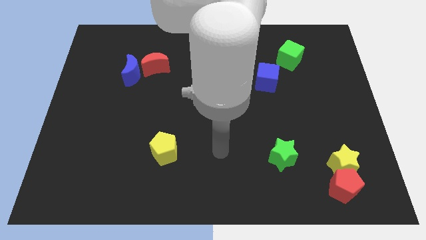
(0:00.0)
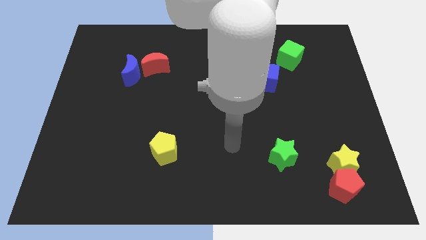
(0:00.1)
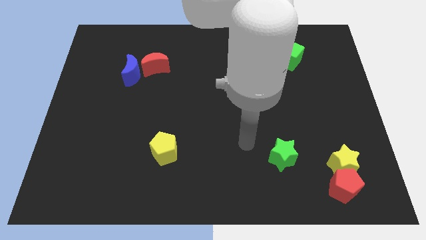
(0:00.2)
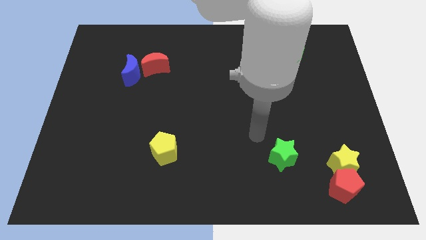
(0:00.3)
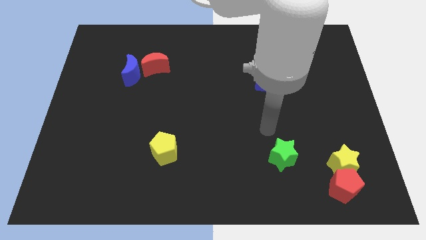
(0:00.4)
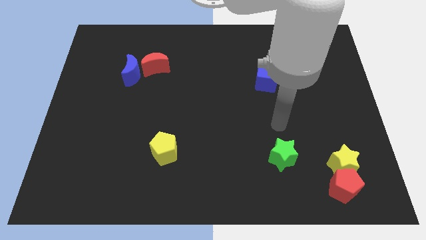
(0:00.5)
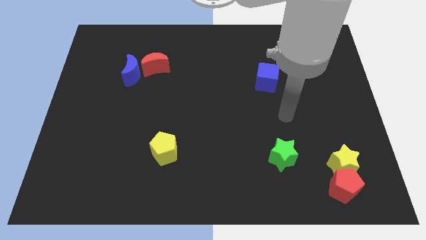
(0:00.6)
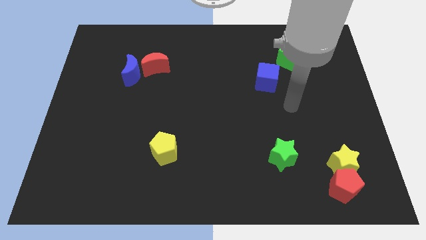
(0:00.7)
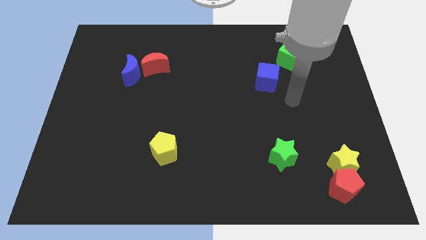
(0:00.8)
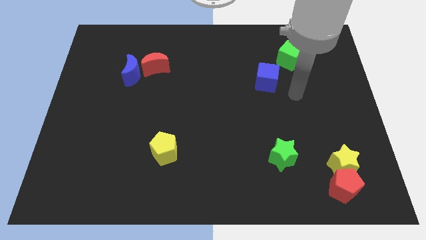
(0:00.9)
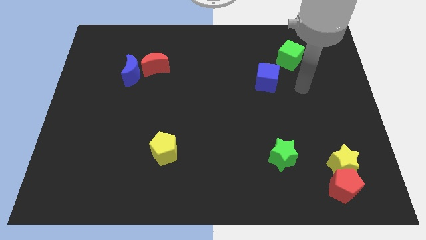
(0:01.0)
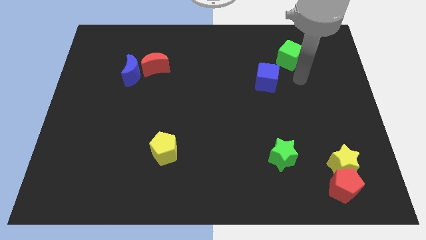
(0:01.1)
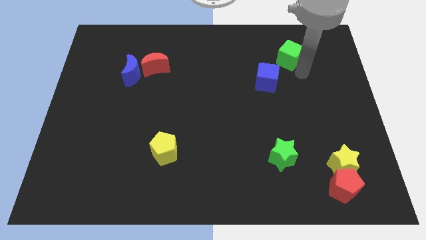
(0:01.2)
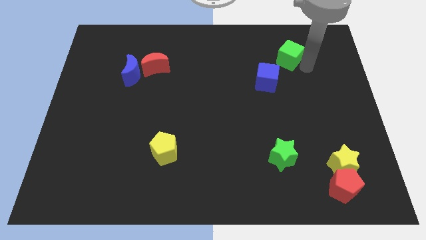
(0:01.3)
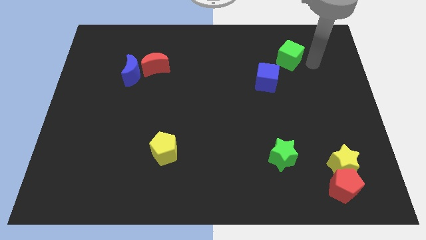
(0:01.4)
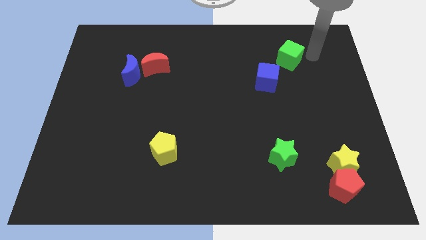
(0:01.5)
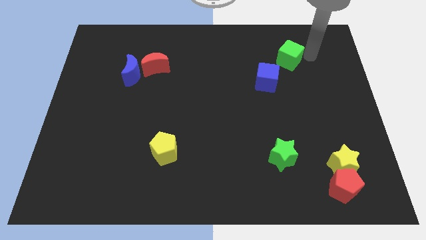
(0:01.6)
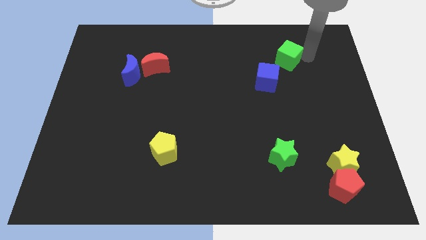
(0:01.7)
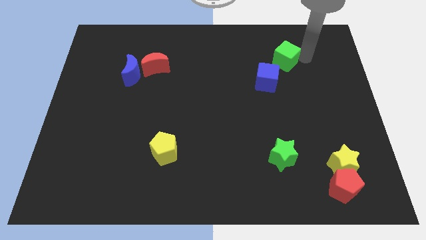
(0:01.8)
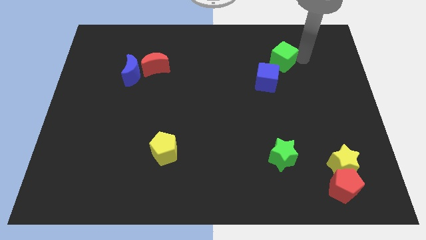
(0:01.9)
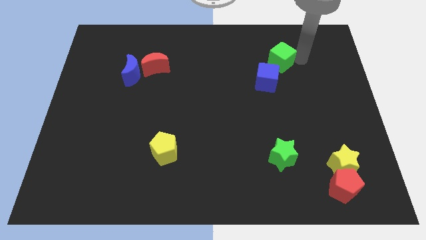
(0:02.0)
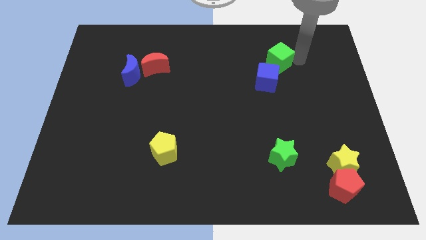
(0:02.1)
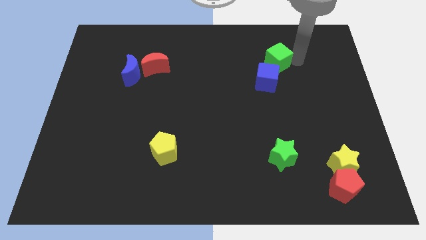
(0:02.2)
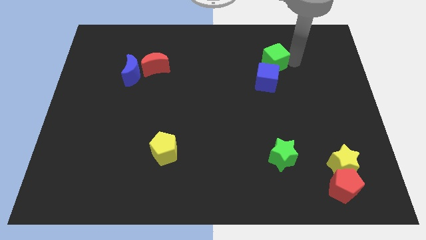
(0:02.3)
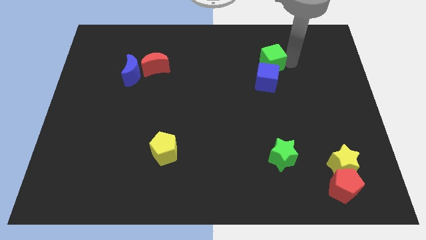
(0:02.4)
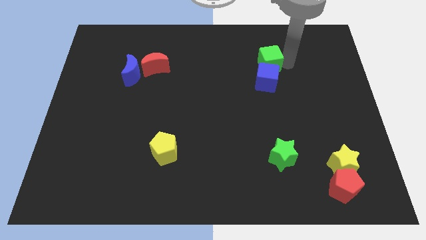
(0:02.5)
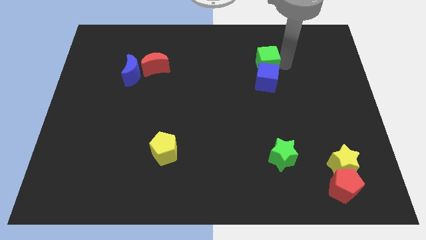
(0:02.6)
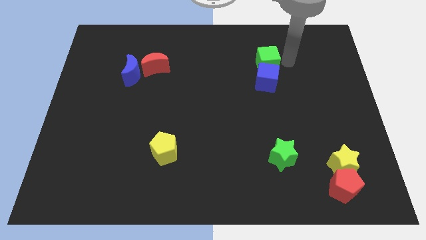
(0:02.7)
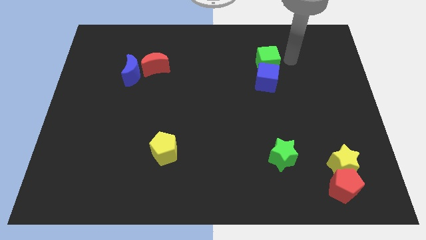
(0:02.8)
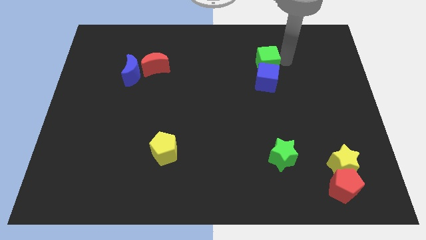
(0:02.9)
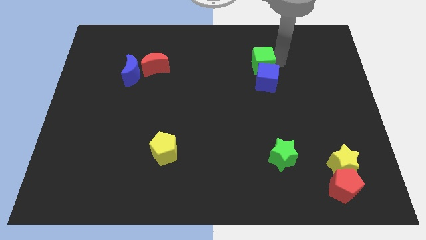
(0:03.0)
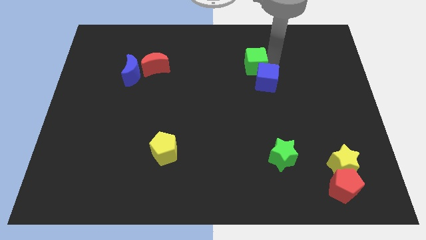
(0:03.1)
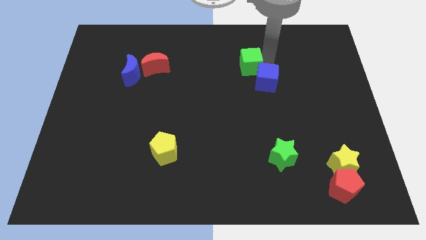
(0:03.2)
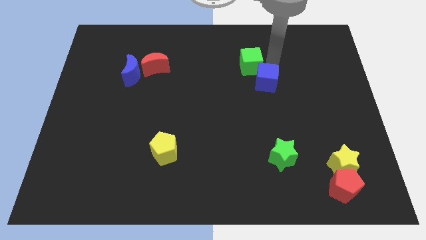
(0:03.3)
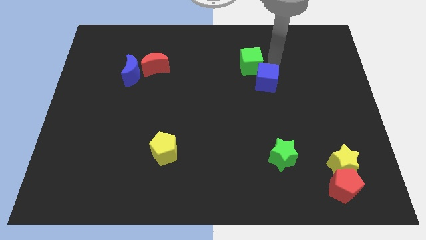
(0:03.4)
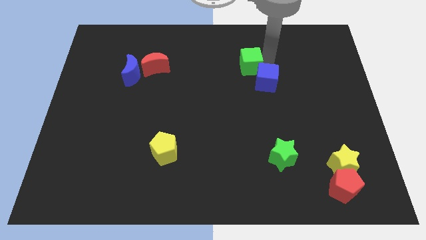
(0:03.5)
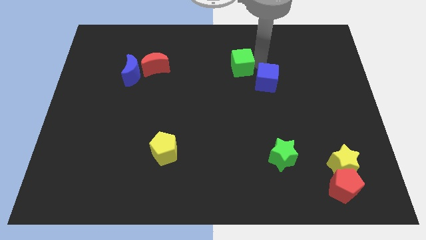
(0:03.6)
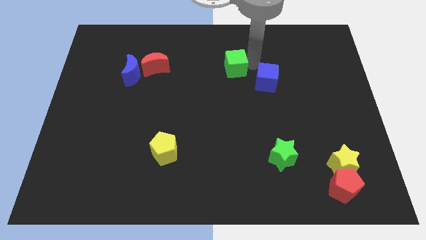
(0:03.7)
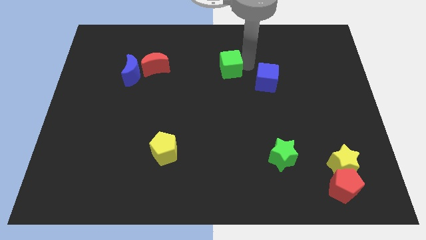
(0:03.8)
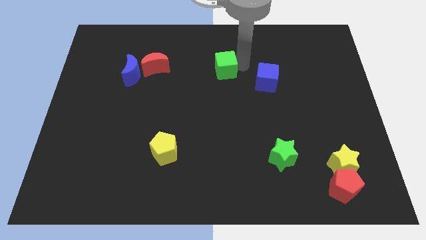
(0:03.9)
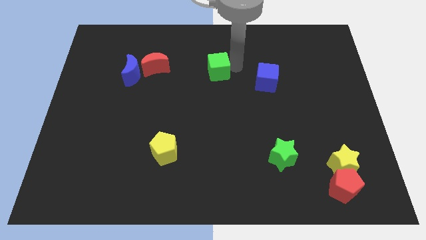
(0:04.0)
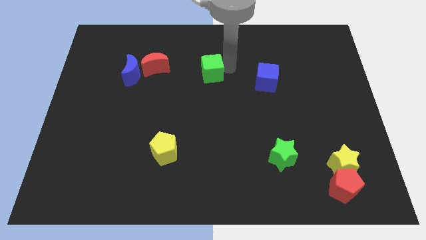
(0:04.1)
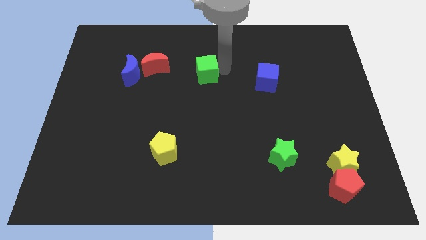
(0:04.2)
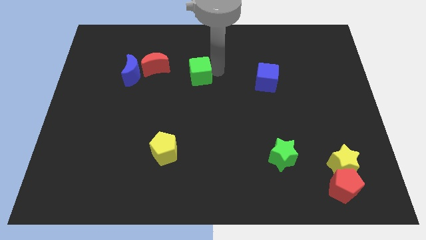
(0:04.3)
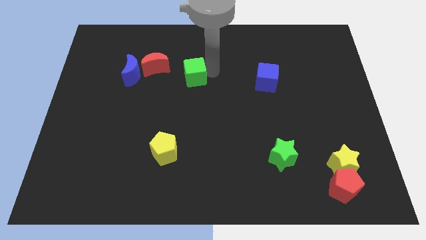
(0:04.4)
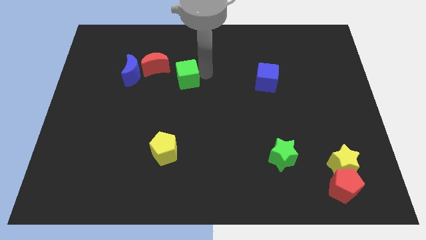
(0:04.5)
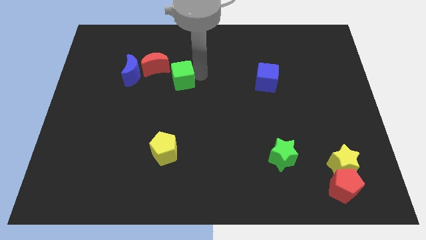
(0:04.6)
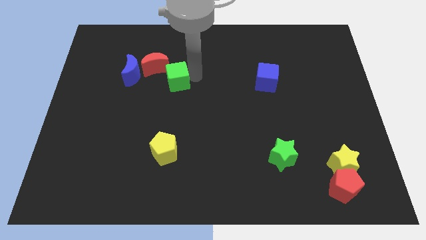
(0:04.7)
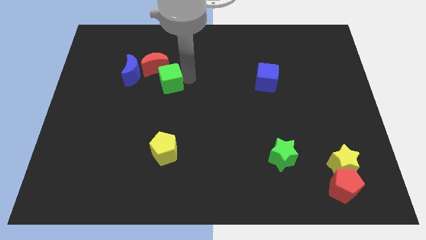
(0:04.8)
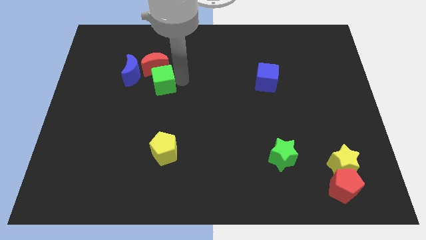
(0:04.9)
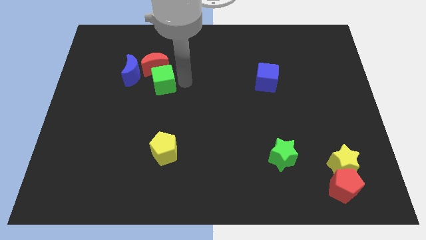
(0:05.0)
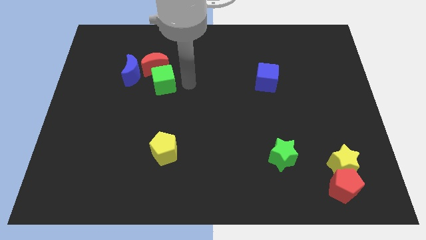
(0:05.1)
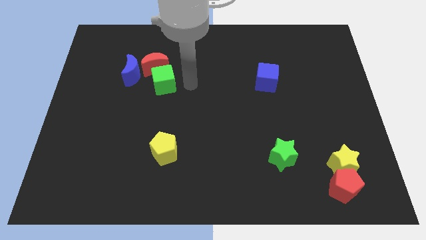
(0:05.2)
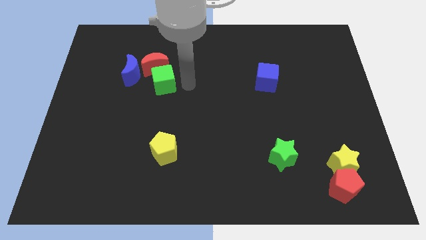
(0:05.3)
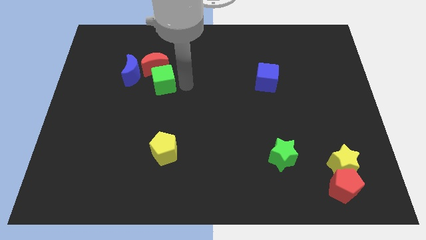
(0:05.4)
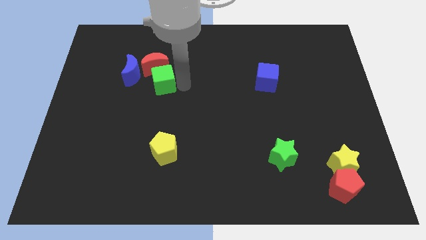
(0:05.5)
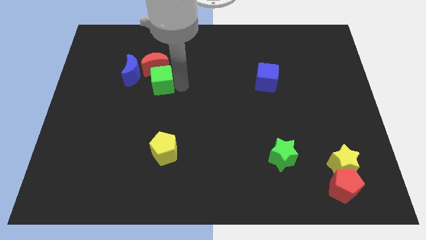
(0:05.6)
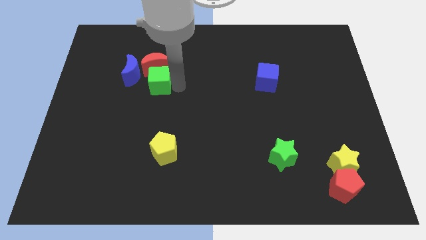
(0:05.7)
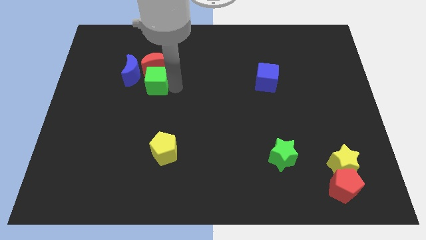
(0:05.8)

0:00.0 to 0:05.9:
put the green cube to the bottom left side of the red moon

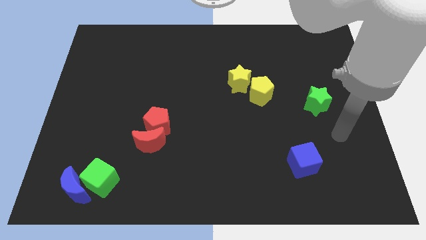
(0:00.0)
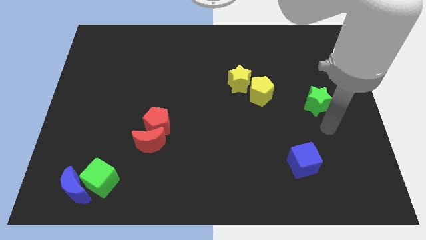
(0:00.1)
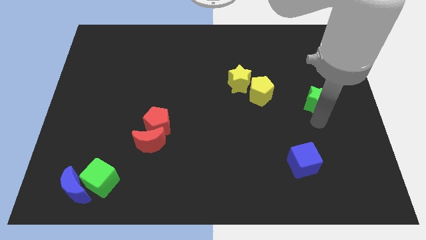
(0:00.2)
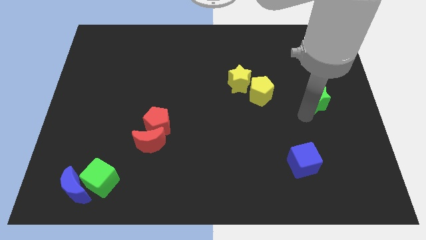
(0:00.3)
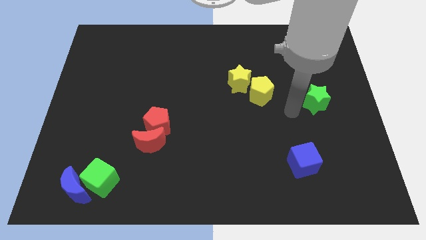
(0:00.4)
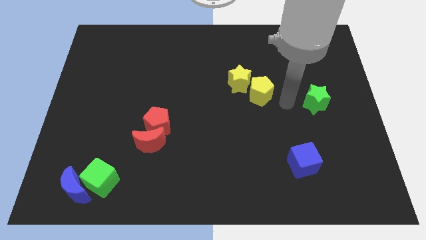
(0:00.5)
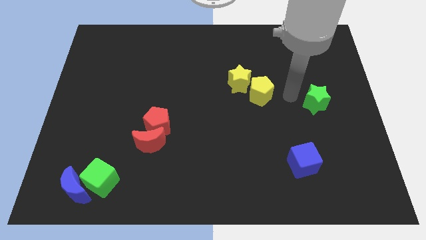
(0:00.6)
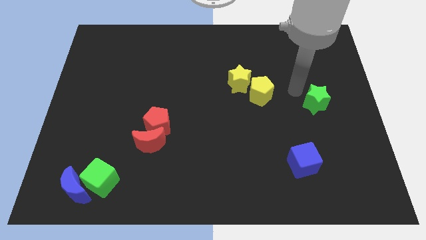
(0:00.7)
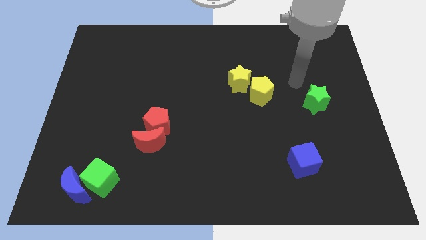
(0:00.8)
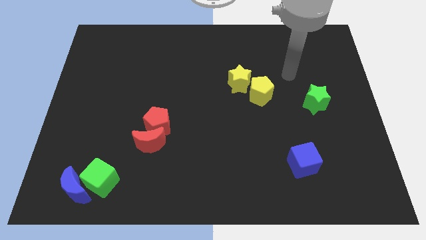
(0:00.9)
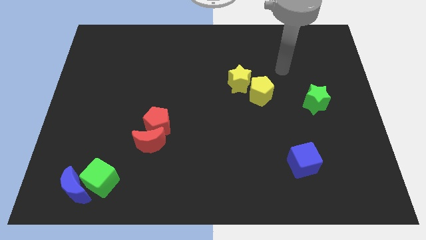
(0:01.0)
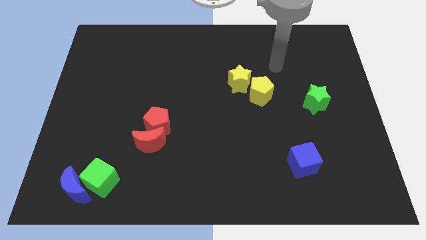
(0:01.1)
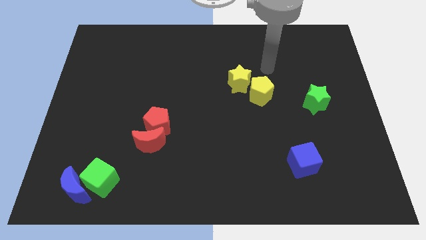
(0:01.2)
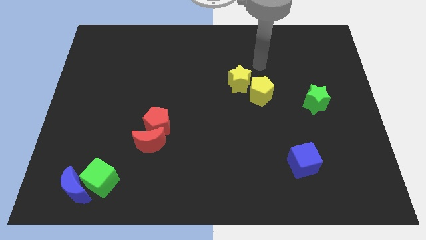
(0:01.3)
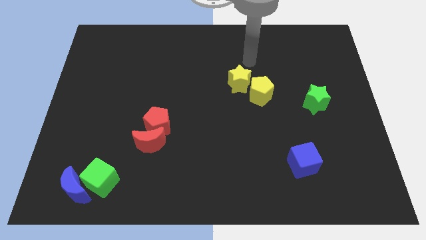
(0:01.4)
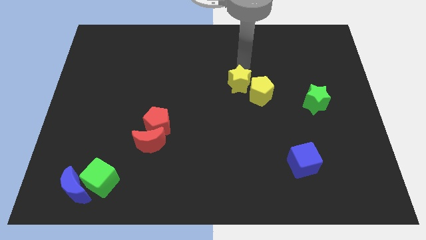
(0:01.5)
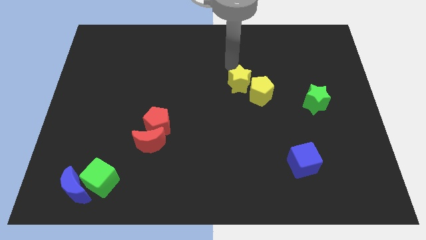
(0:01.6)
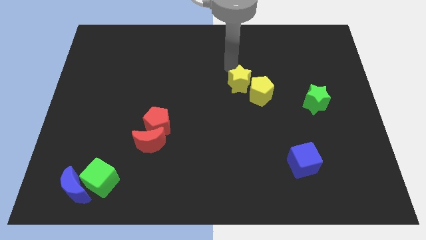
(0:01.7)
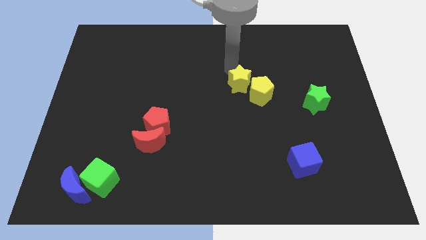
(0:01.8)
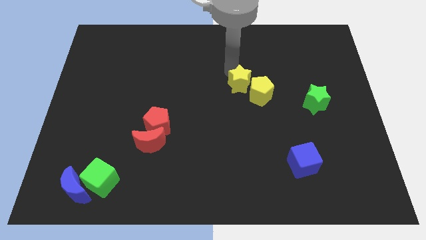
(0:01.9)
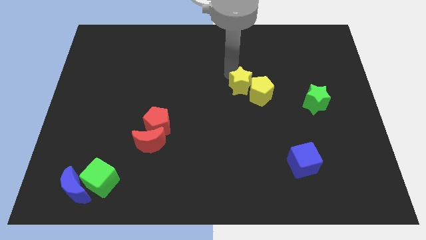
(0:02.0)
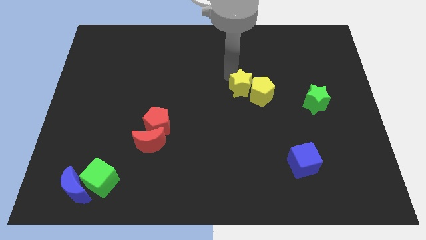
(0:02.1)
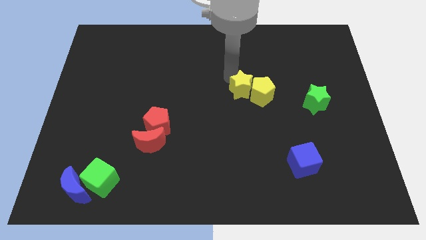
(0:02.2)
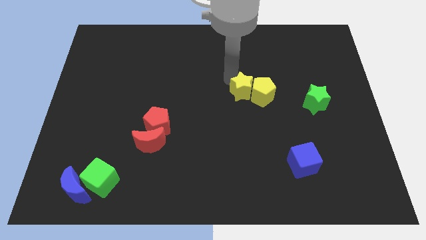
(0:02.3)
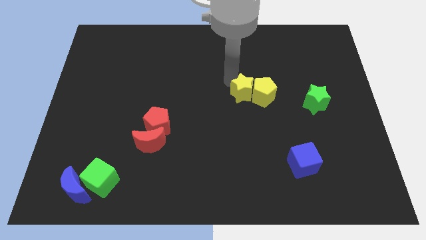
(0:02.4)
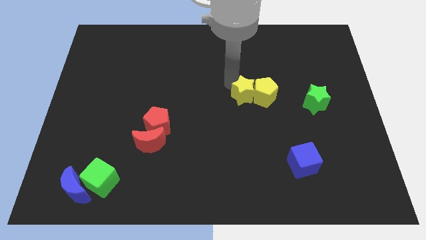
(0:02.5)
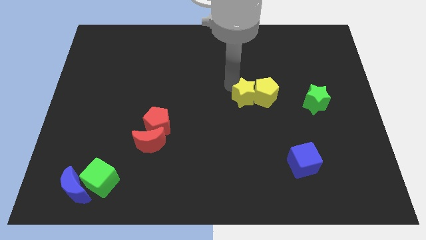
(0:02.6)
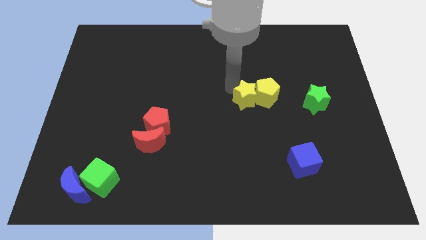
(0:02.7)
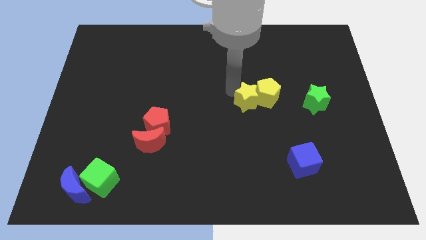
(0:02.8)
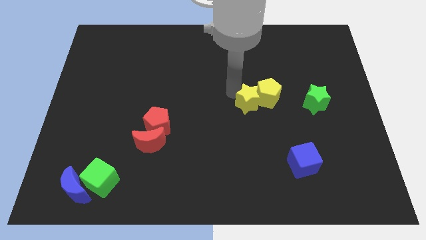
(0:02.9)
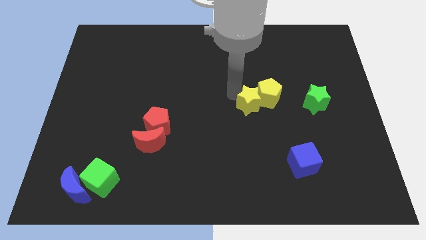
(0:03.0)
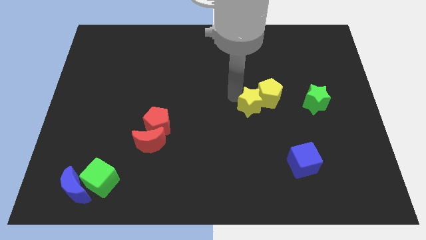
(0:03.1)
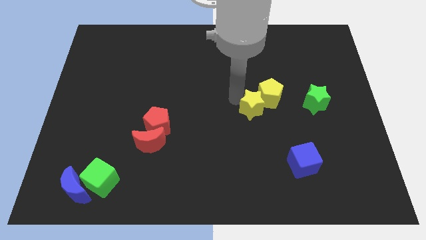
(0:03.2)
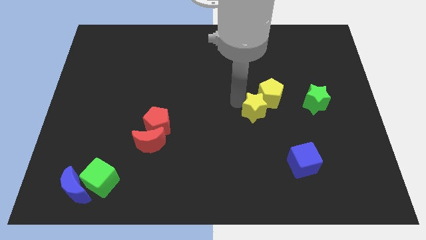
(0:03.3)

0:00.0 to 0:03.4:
move the yellow star below the yellow pentagon
